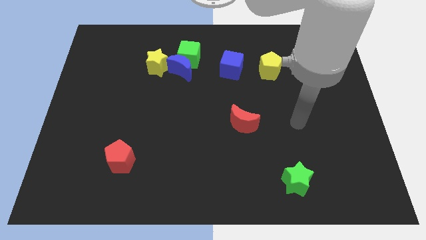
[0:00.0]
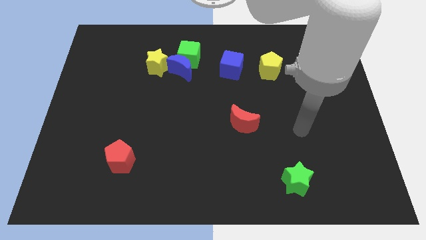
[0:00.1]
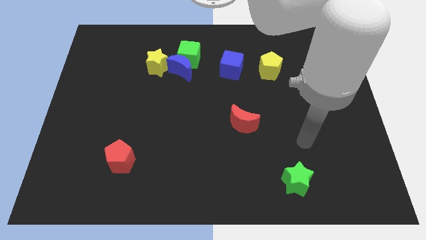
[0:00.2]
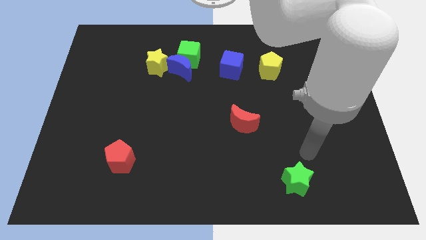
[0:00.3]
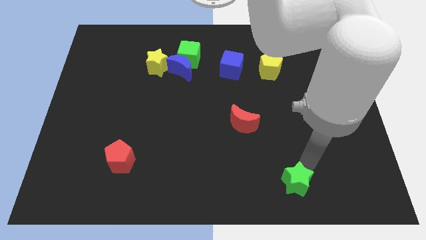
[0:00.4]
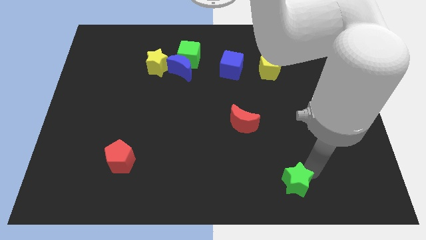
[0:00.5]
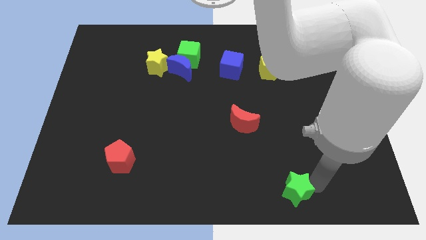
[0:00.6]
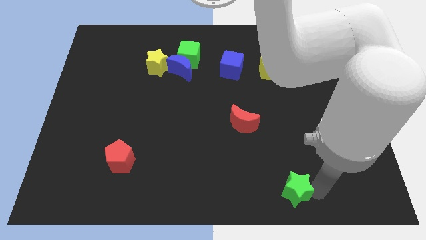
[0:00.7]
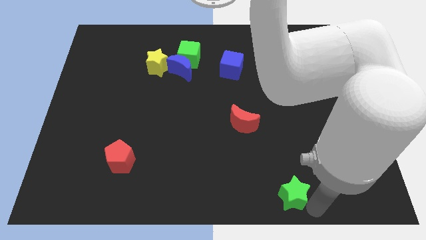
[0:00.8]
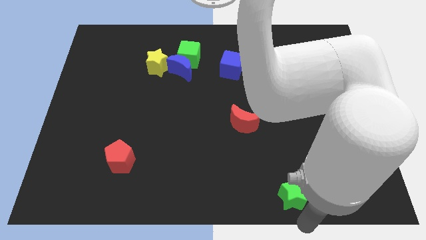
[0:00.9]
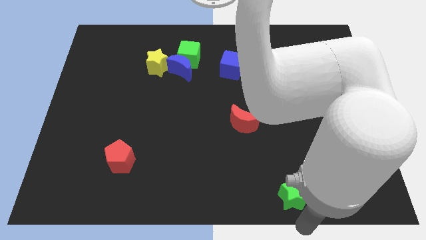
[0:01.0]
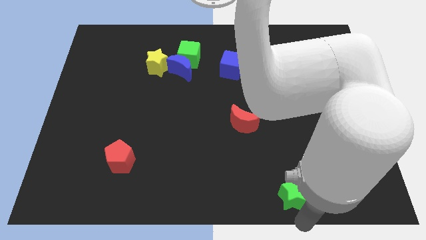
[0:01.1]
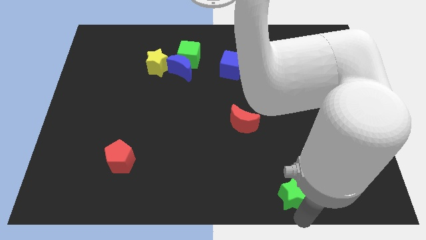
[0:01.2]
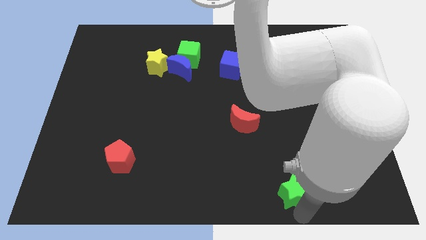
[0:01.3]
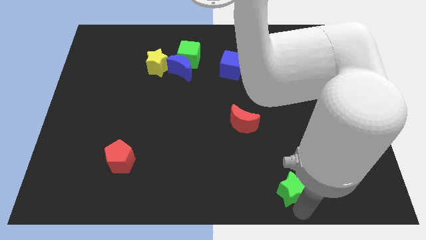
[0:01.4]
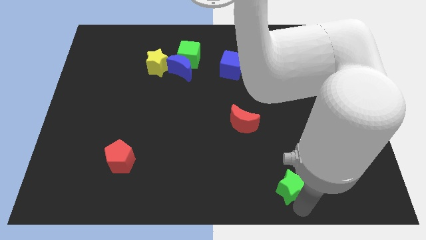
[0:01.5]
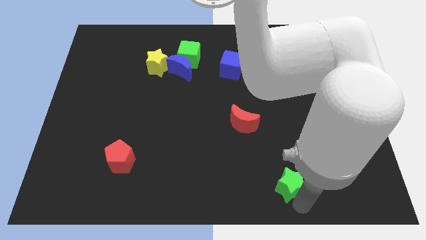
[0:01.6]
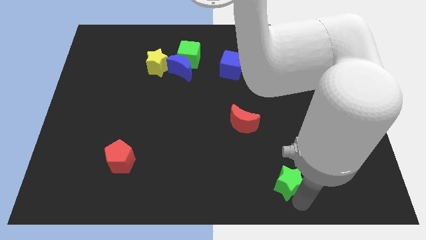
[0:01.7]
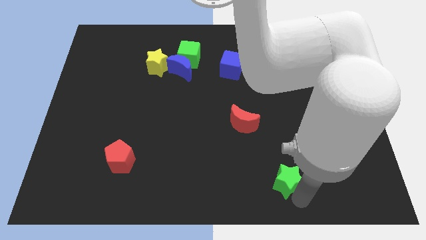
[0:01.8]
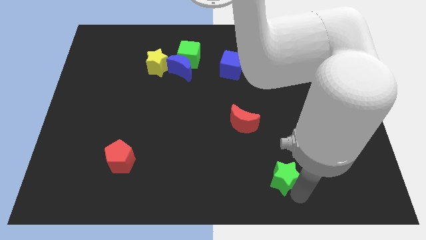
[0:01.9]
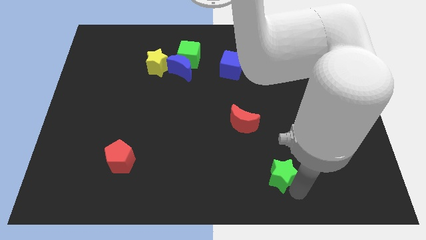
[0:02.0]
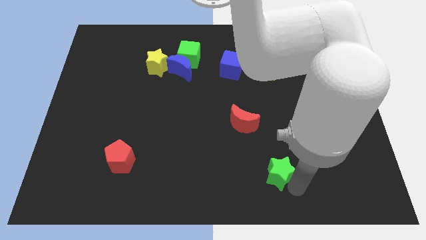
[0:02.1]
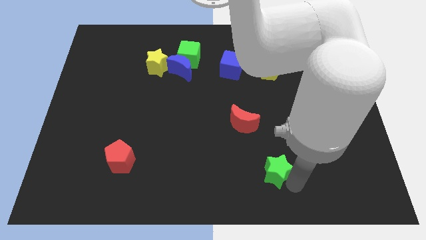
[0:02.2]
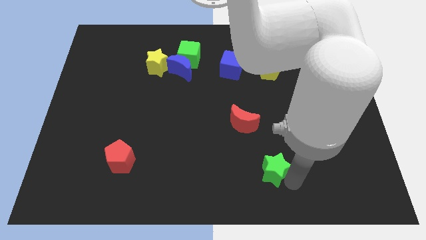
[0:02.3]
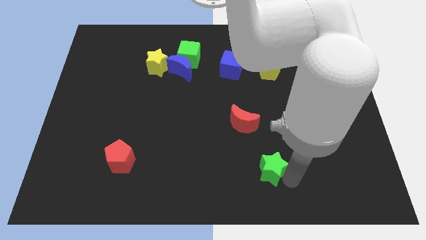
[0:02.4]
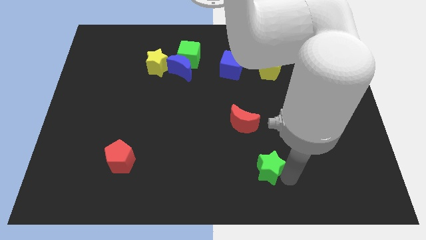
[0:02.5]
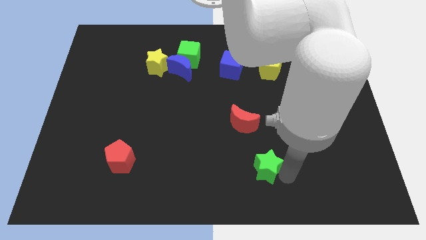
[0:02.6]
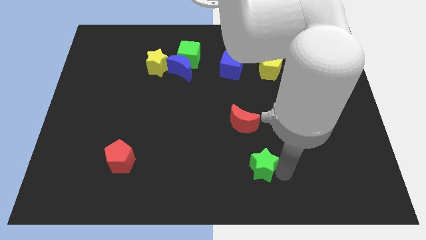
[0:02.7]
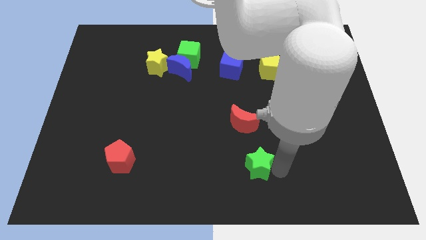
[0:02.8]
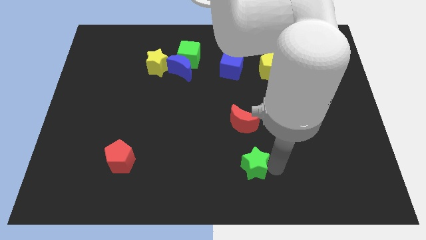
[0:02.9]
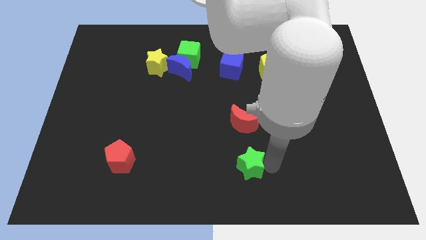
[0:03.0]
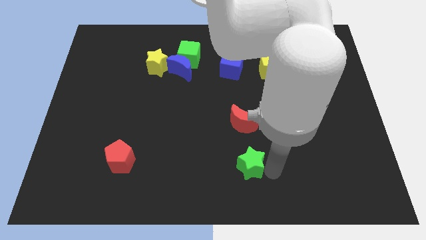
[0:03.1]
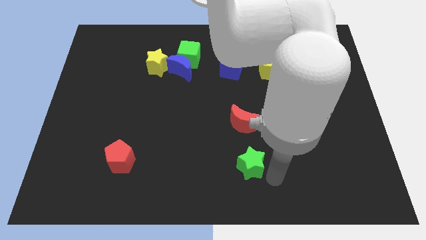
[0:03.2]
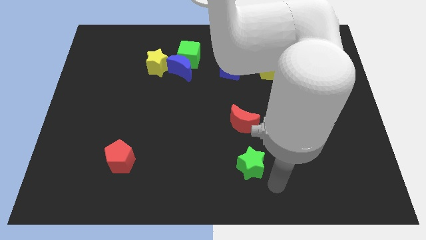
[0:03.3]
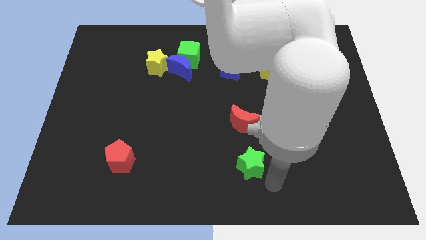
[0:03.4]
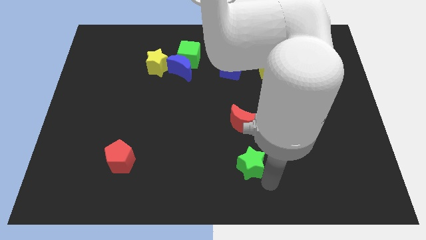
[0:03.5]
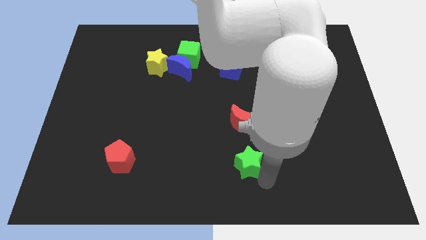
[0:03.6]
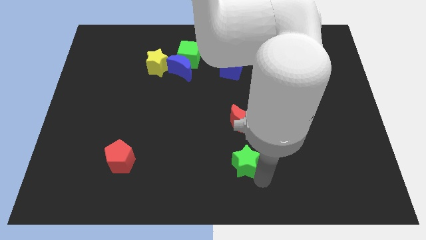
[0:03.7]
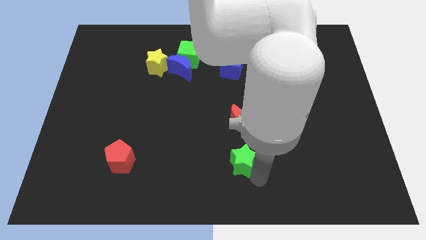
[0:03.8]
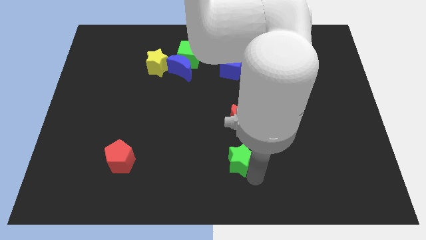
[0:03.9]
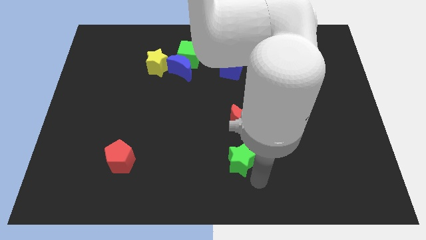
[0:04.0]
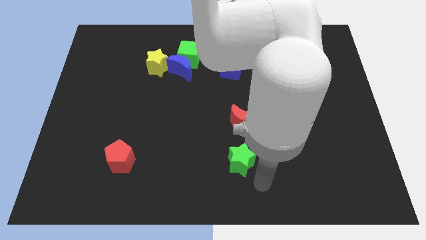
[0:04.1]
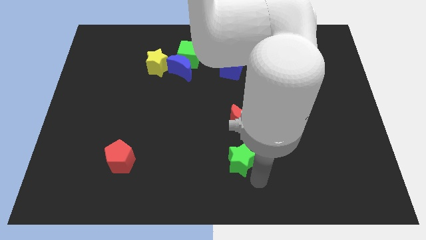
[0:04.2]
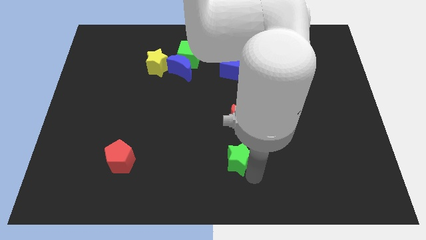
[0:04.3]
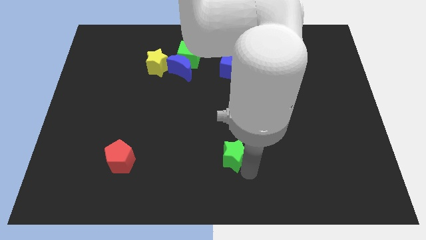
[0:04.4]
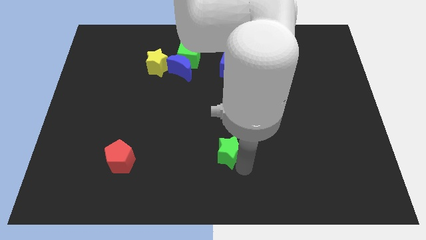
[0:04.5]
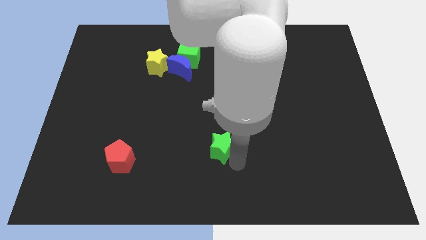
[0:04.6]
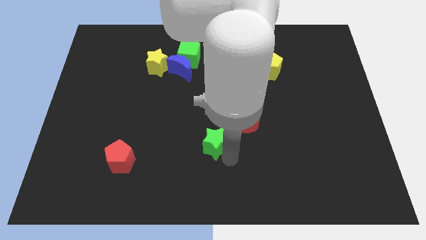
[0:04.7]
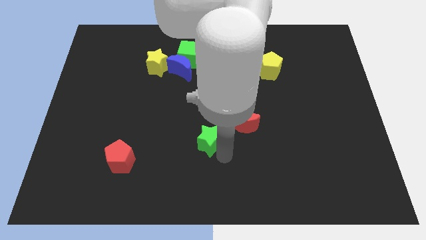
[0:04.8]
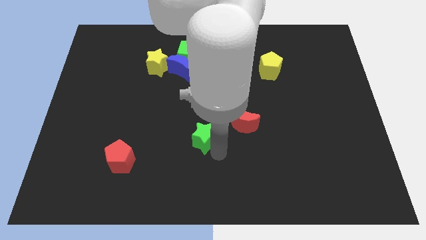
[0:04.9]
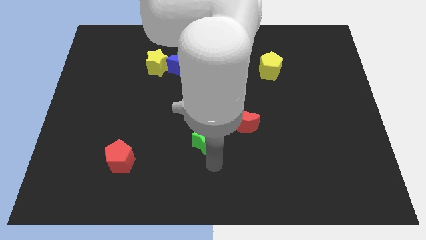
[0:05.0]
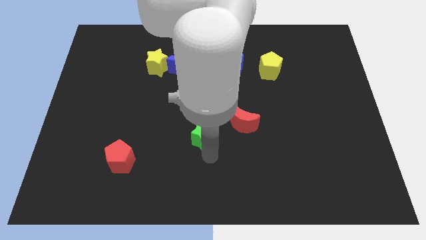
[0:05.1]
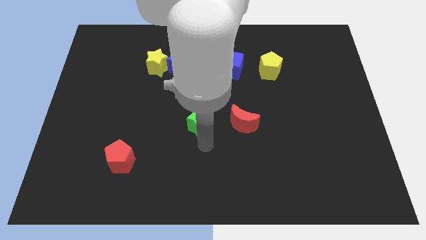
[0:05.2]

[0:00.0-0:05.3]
push the green star upwards and to the left

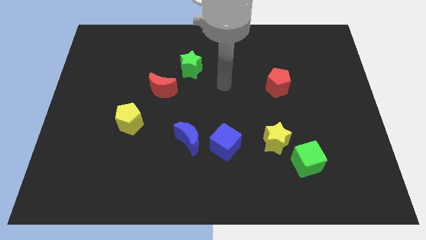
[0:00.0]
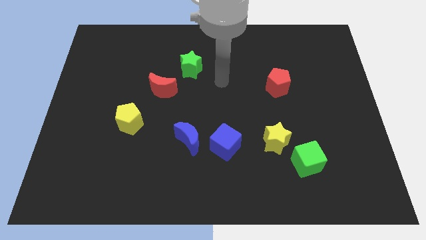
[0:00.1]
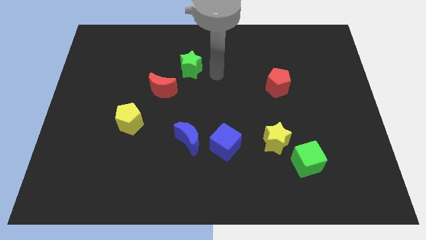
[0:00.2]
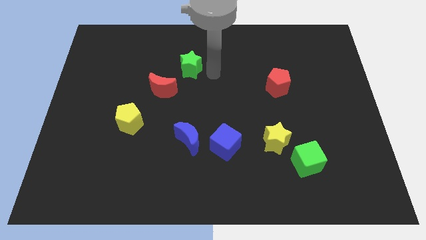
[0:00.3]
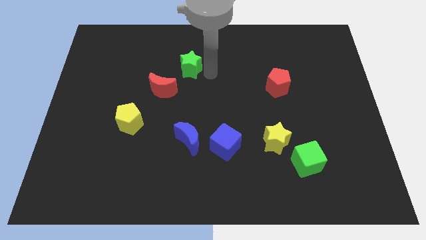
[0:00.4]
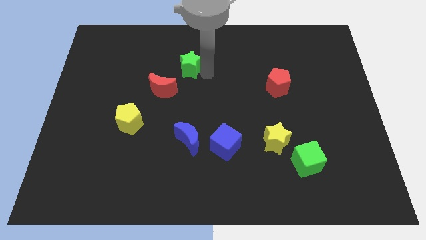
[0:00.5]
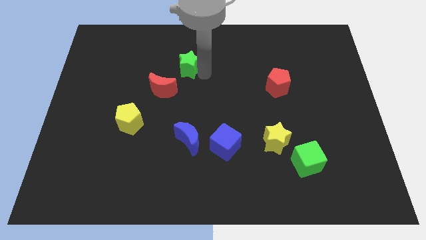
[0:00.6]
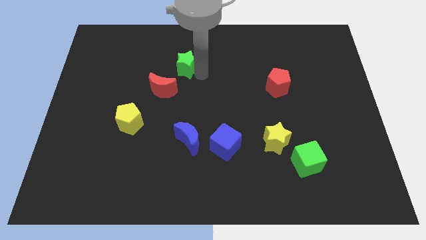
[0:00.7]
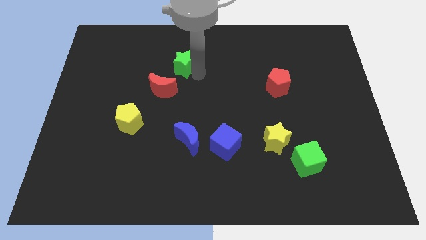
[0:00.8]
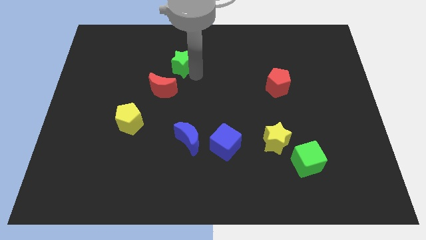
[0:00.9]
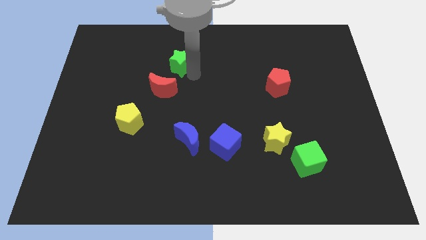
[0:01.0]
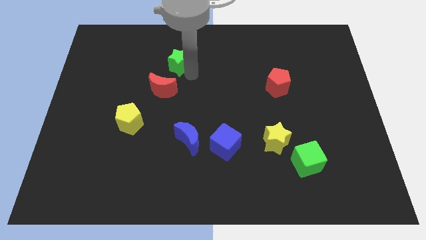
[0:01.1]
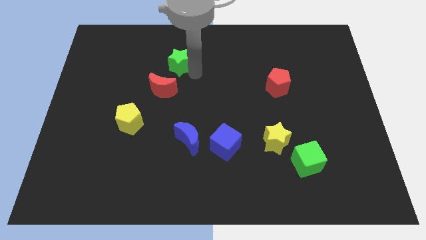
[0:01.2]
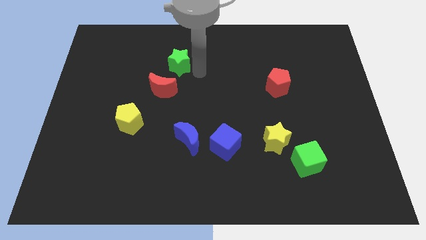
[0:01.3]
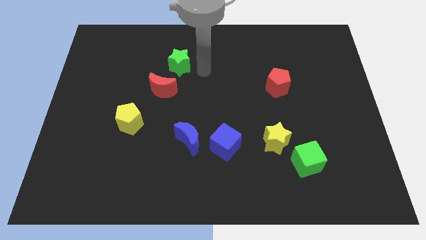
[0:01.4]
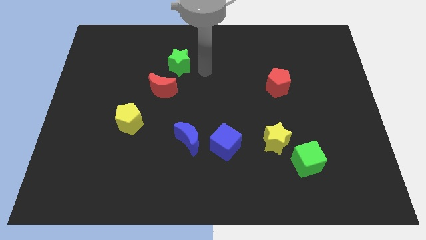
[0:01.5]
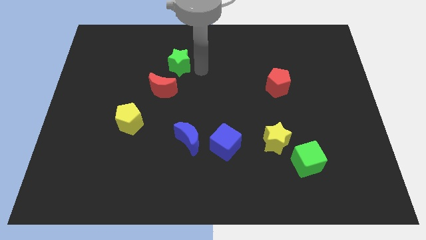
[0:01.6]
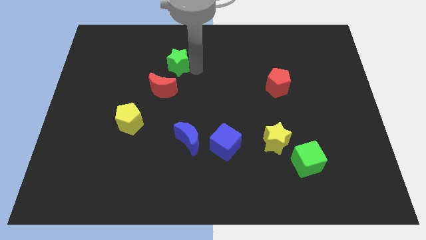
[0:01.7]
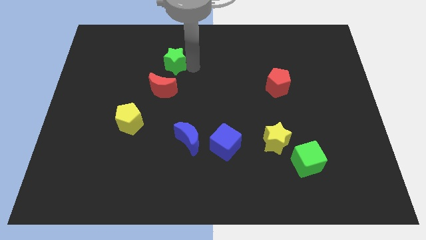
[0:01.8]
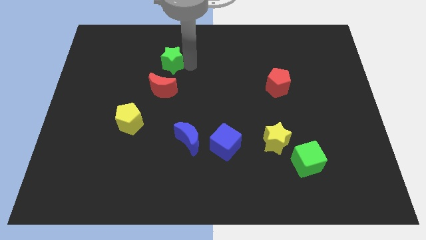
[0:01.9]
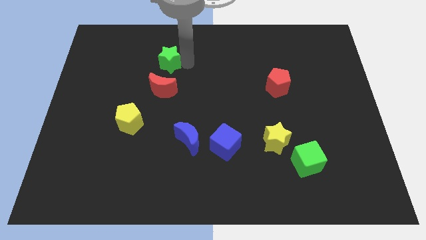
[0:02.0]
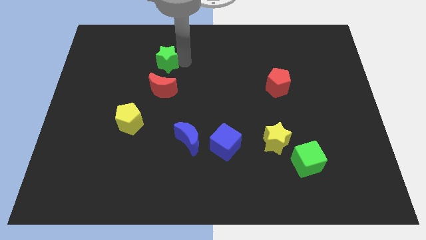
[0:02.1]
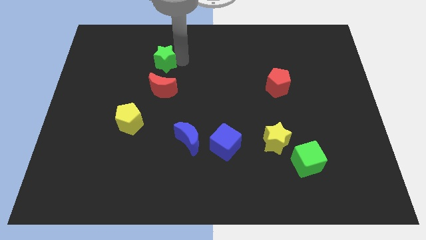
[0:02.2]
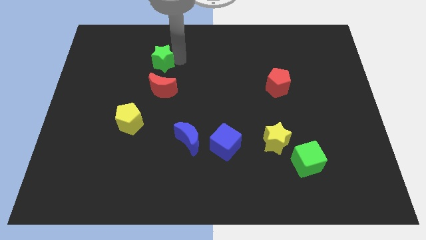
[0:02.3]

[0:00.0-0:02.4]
slide the green star to the left slightly

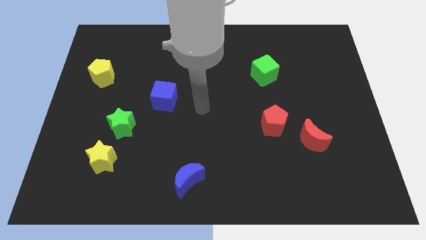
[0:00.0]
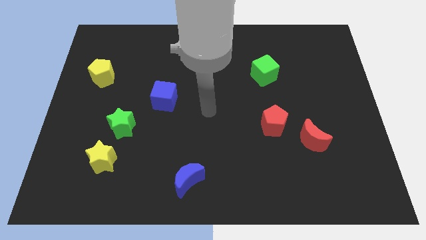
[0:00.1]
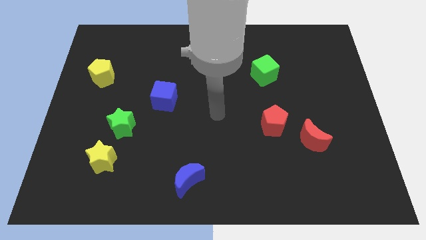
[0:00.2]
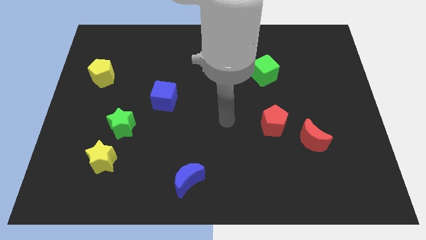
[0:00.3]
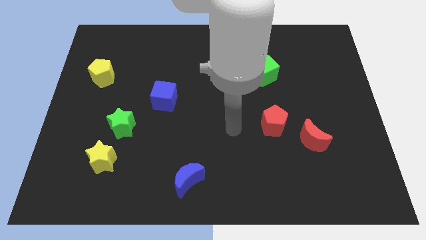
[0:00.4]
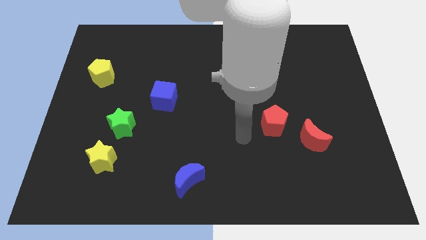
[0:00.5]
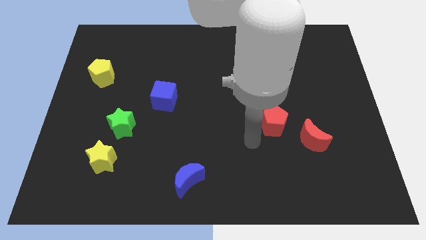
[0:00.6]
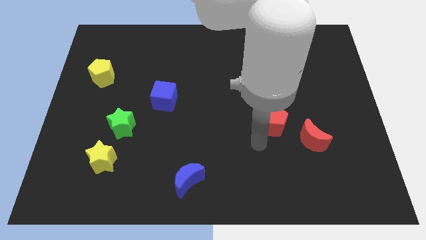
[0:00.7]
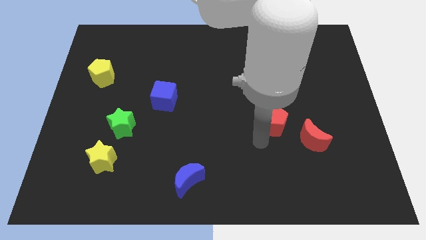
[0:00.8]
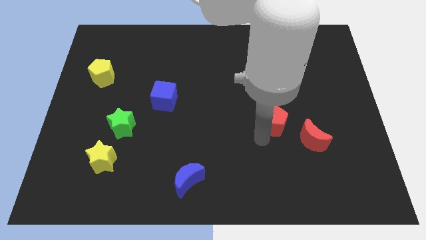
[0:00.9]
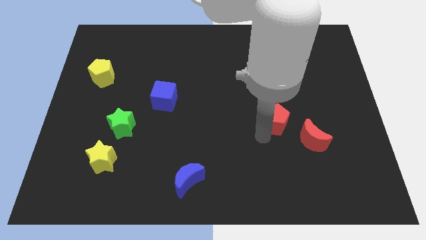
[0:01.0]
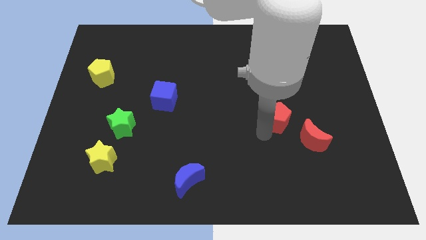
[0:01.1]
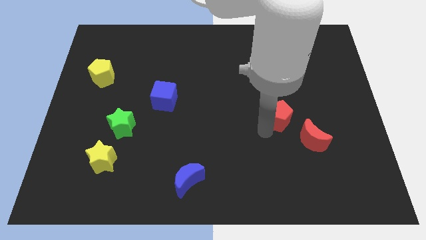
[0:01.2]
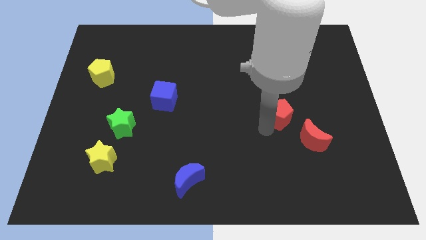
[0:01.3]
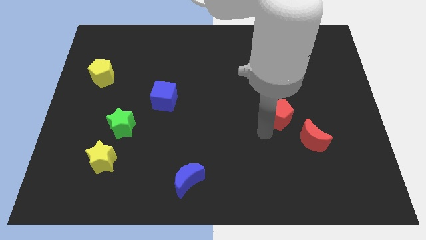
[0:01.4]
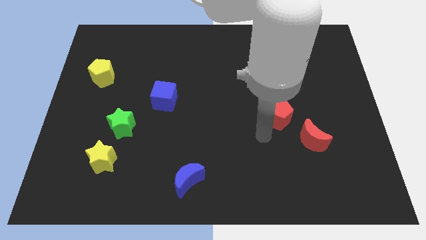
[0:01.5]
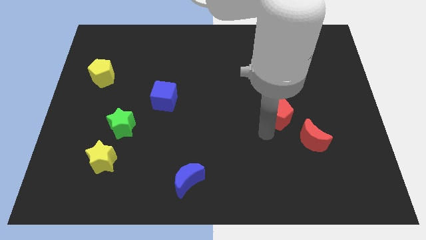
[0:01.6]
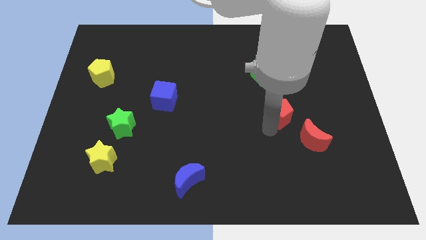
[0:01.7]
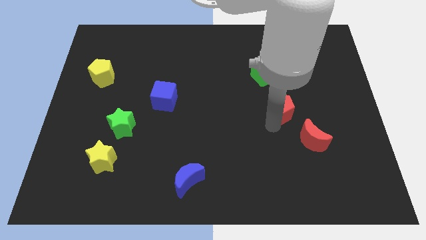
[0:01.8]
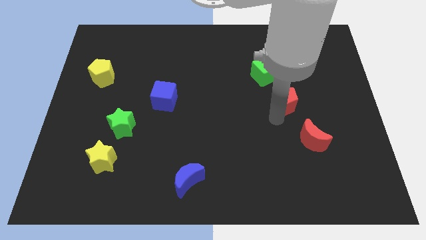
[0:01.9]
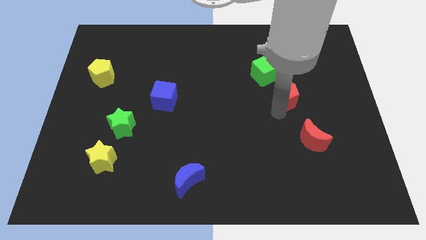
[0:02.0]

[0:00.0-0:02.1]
push the red pentagon somewhat up and to the right diagonally
